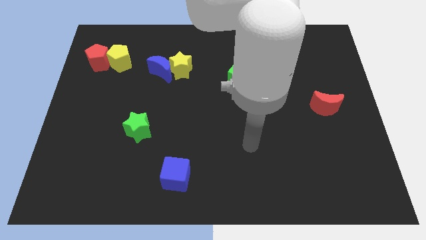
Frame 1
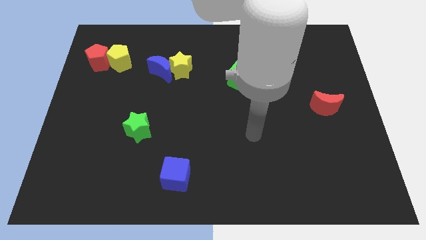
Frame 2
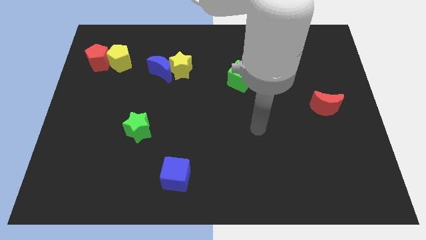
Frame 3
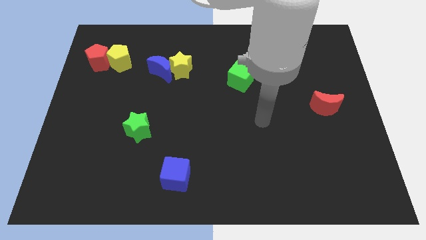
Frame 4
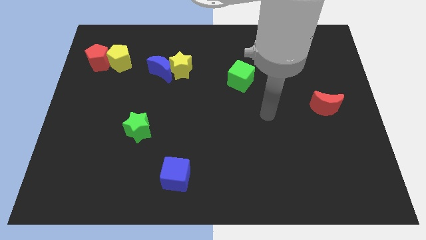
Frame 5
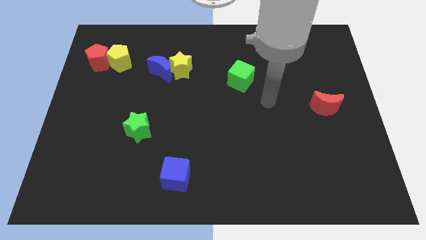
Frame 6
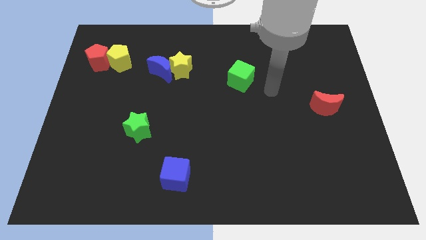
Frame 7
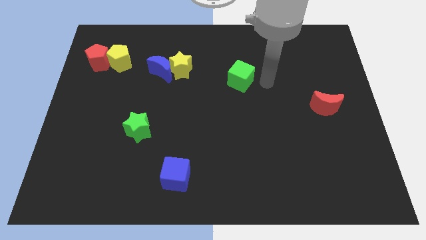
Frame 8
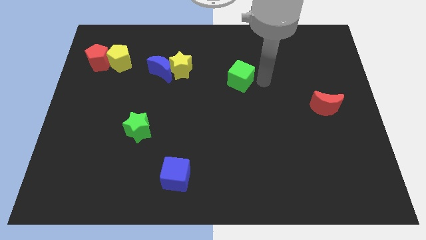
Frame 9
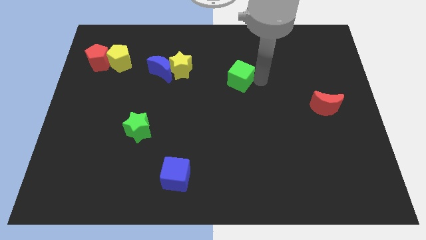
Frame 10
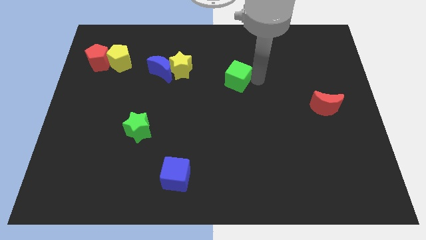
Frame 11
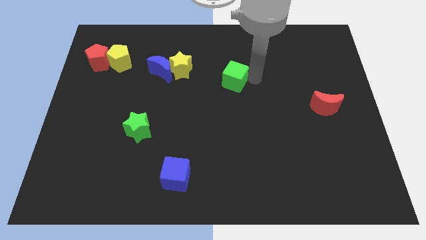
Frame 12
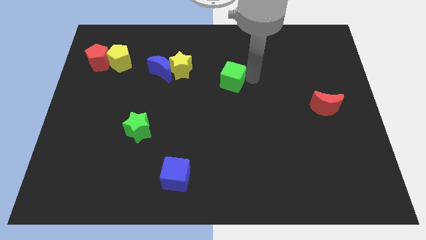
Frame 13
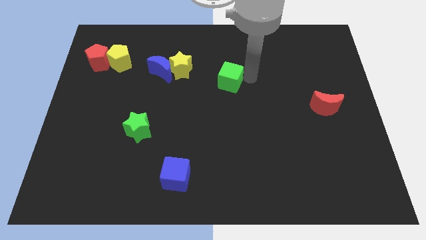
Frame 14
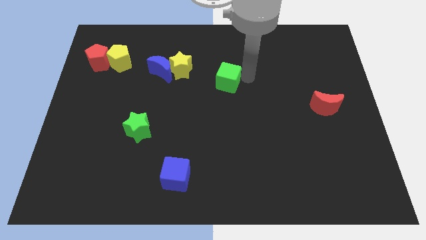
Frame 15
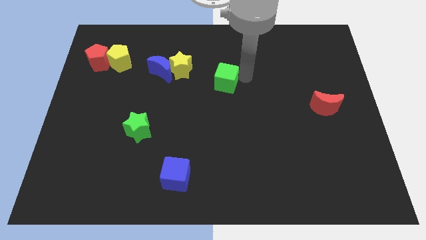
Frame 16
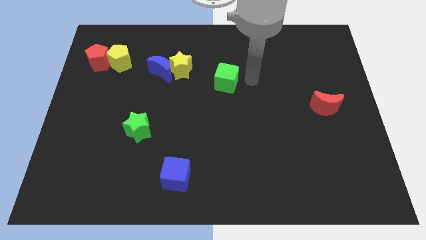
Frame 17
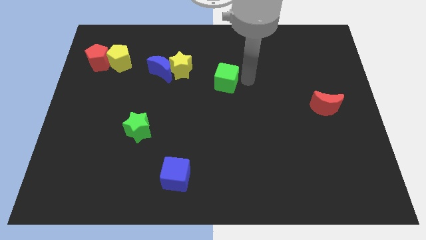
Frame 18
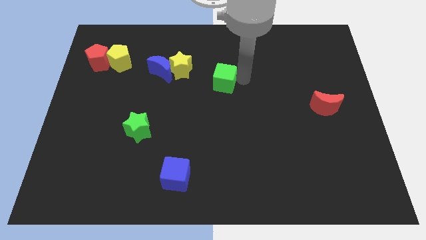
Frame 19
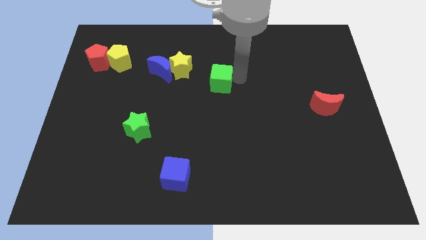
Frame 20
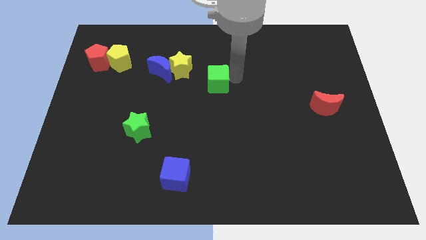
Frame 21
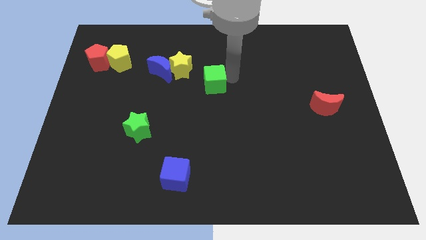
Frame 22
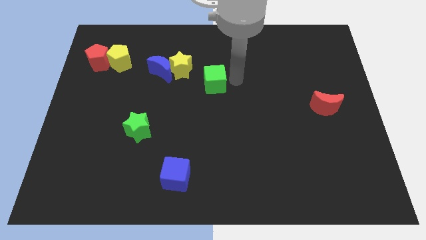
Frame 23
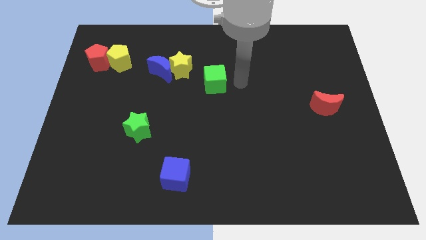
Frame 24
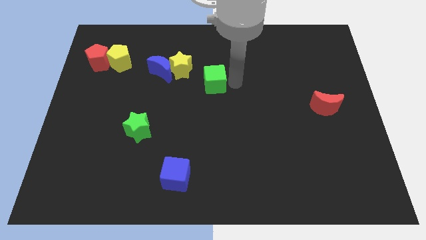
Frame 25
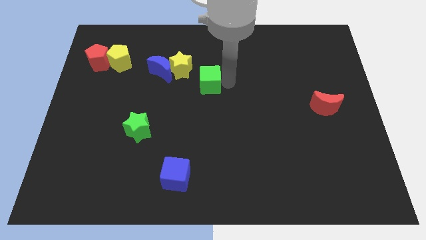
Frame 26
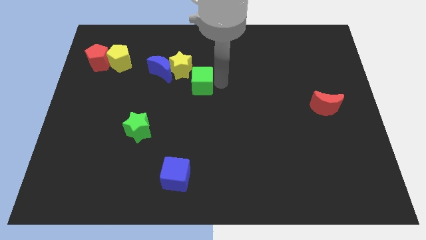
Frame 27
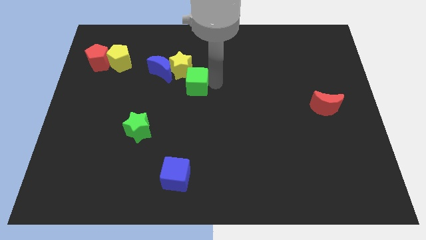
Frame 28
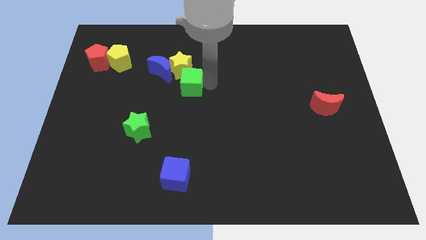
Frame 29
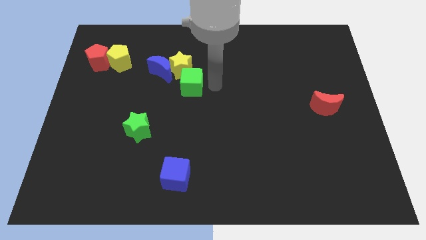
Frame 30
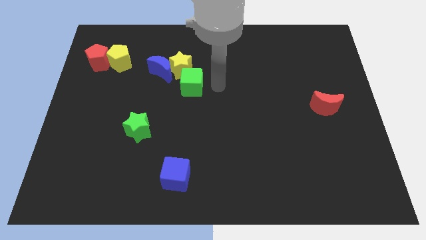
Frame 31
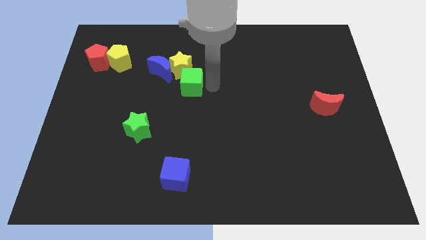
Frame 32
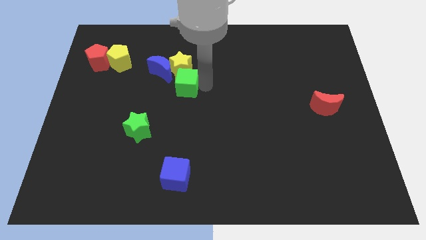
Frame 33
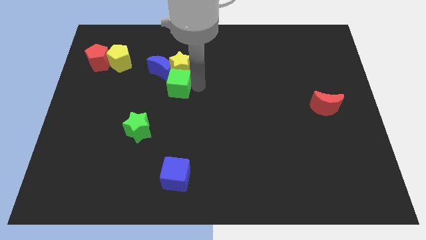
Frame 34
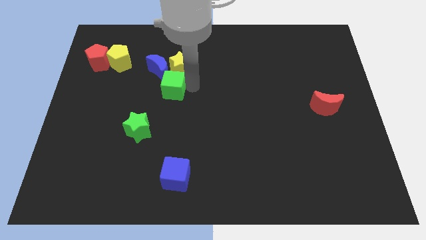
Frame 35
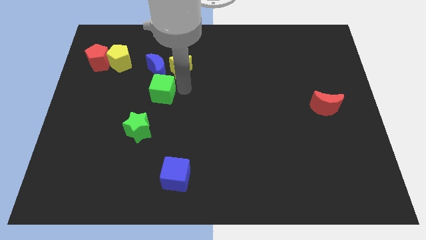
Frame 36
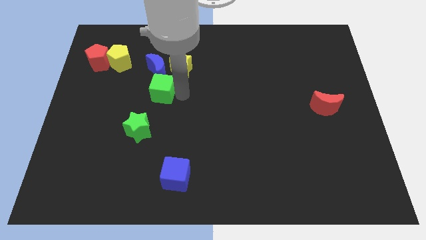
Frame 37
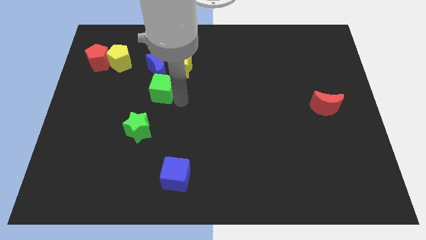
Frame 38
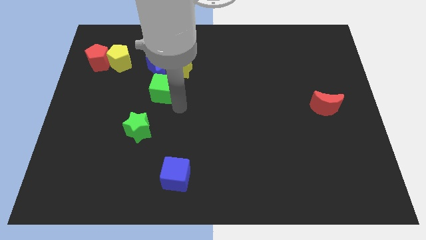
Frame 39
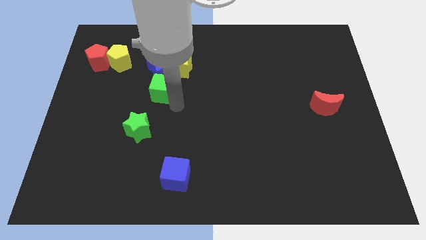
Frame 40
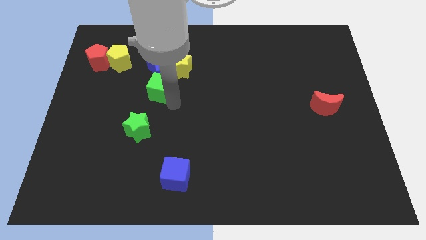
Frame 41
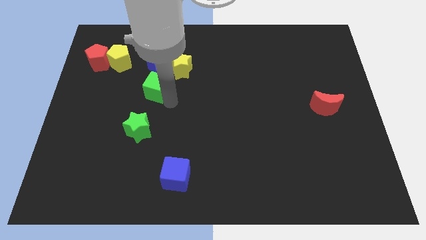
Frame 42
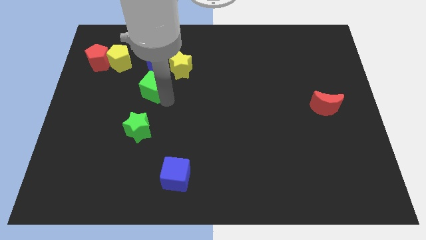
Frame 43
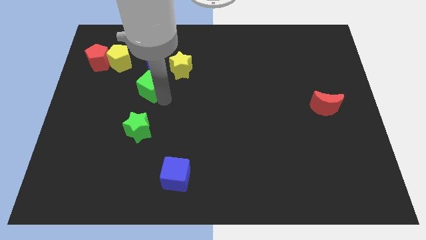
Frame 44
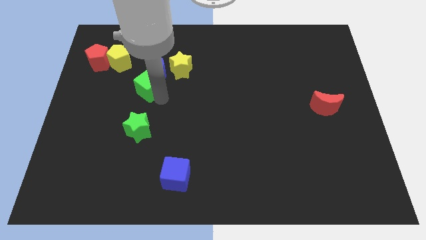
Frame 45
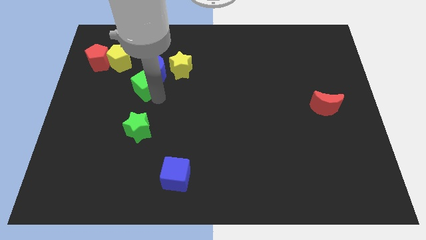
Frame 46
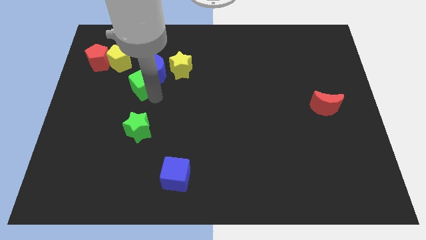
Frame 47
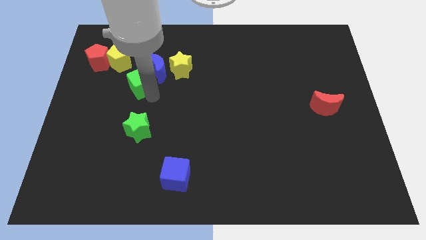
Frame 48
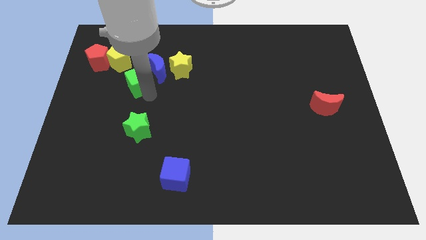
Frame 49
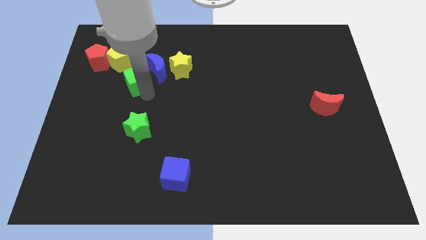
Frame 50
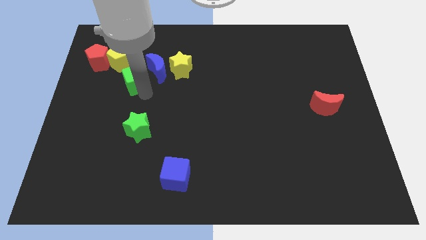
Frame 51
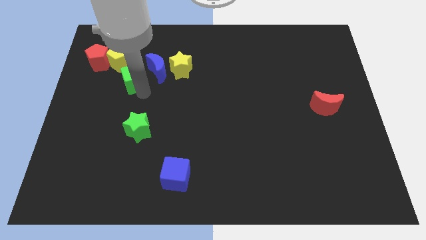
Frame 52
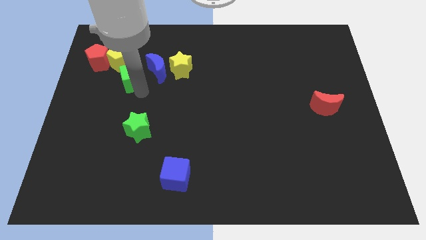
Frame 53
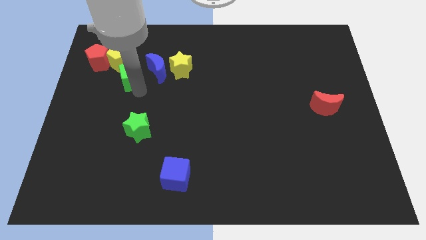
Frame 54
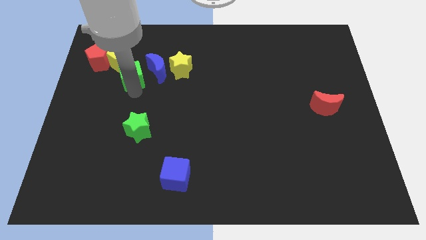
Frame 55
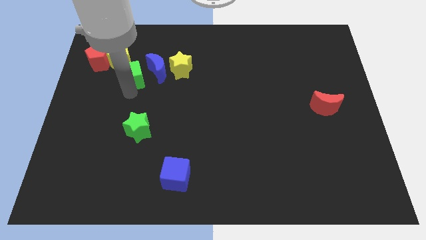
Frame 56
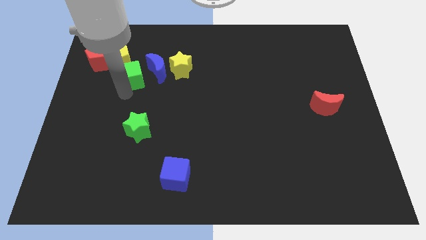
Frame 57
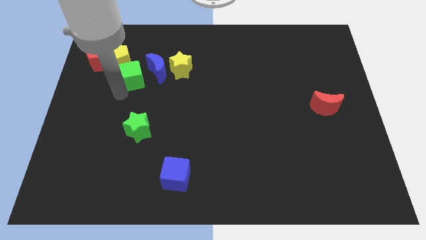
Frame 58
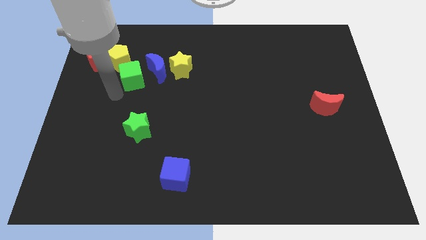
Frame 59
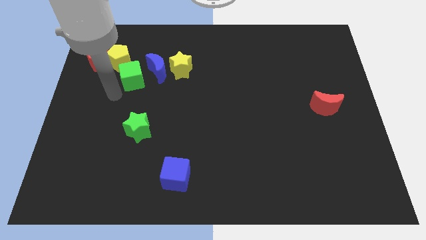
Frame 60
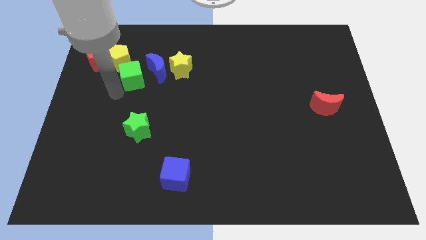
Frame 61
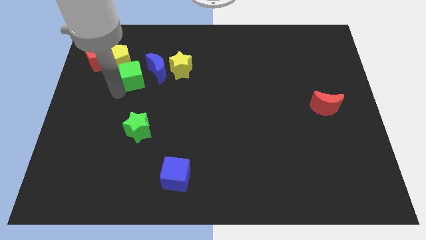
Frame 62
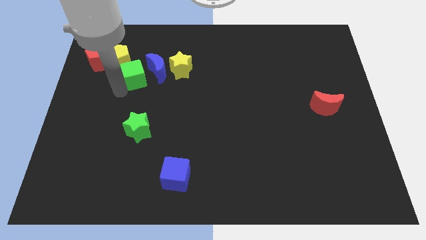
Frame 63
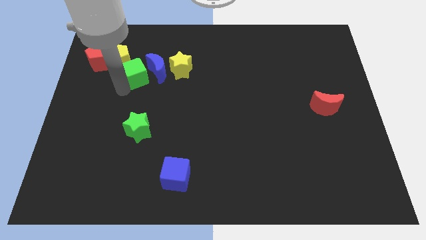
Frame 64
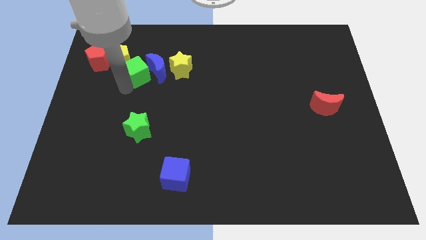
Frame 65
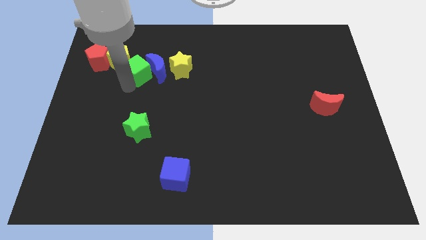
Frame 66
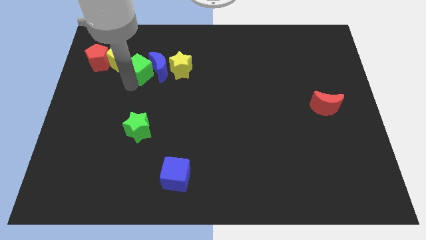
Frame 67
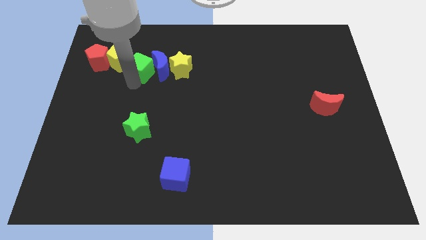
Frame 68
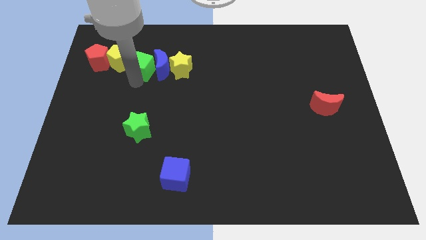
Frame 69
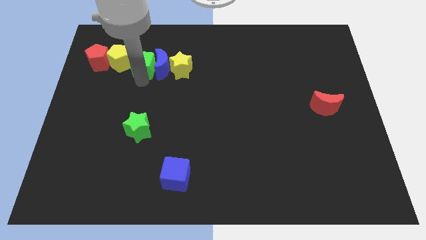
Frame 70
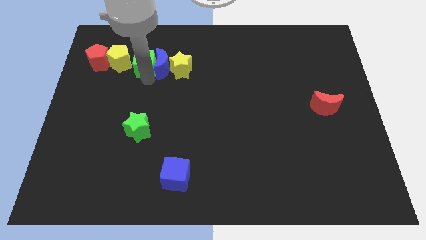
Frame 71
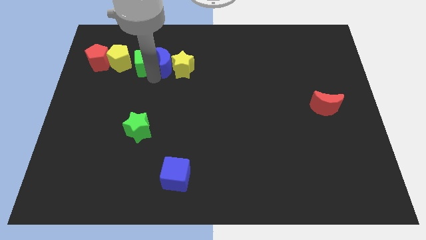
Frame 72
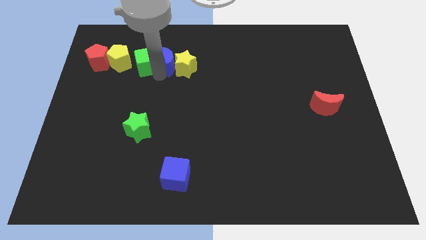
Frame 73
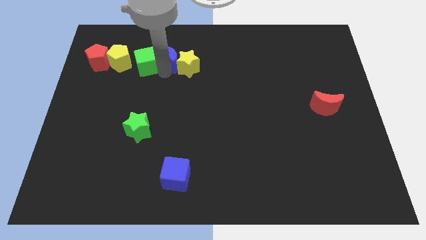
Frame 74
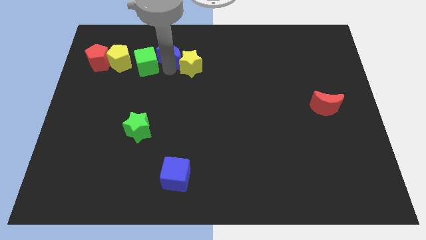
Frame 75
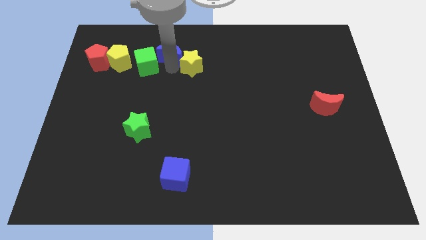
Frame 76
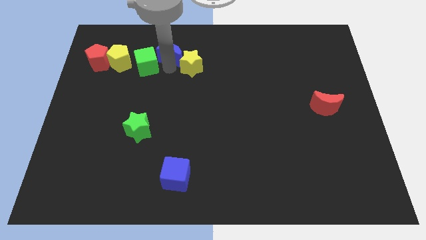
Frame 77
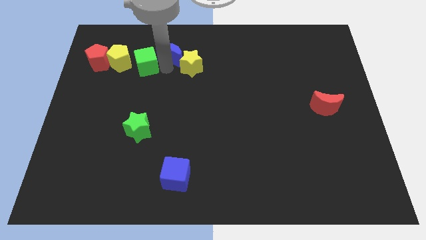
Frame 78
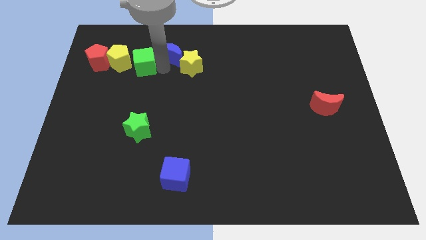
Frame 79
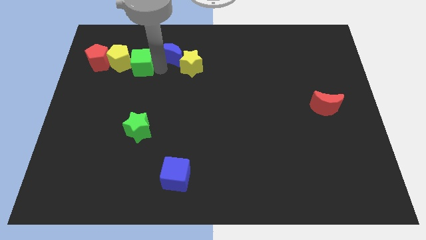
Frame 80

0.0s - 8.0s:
slide the green cube to the yellow pentagon
